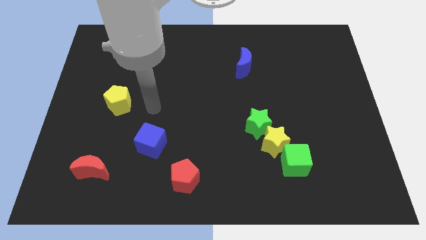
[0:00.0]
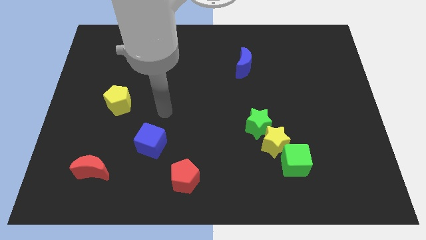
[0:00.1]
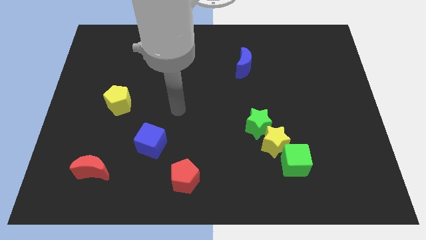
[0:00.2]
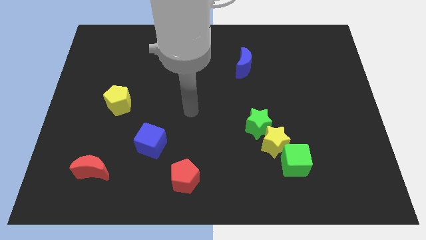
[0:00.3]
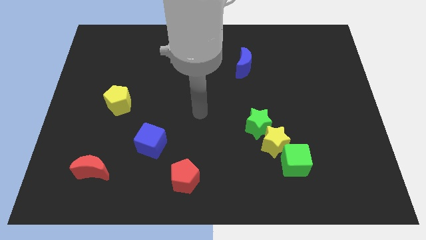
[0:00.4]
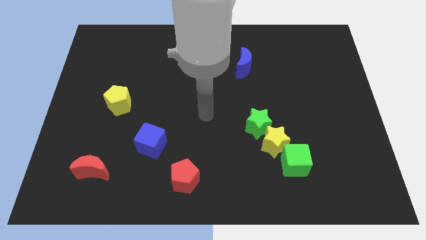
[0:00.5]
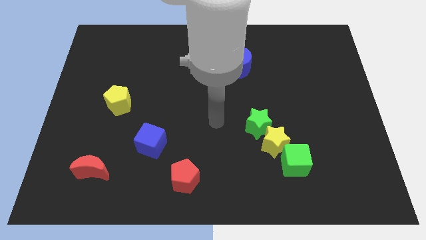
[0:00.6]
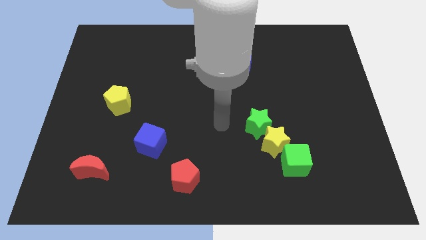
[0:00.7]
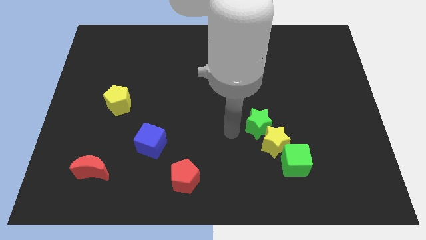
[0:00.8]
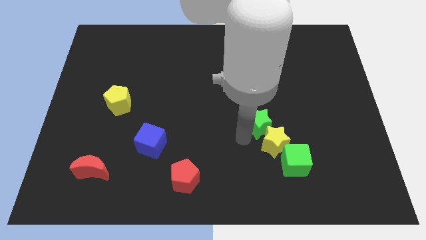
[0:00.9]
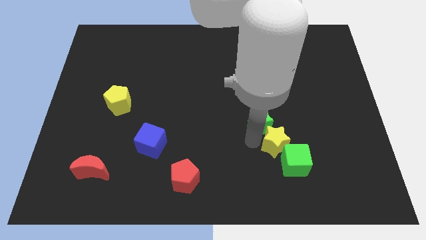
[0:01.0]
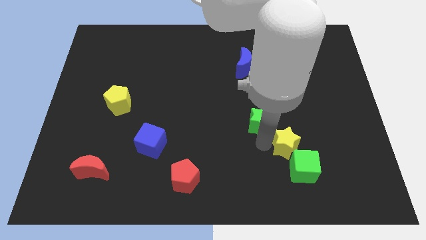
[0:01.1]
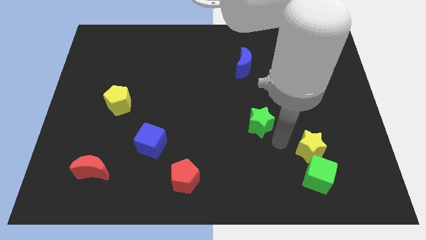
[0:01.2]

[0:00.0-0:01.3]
separate the green star from the yellow star
